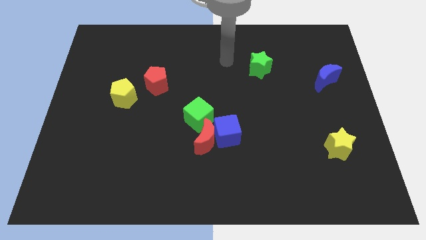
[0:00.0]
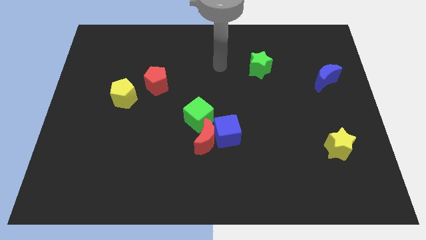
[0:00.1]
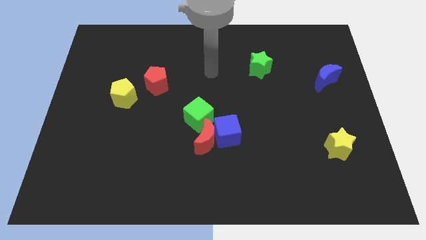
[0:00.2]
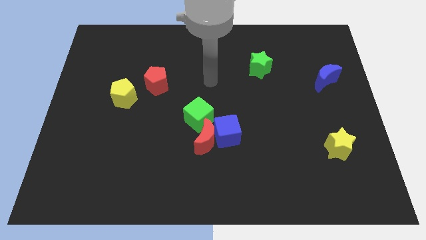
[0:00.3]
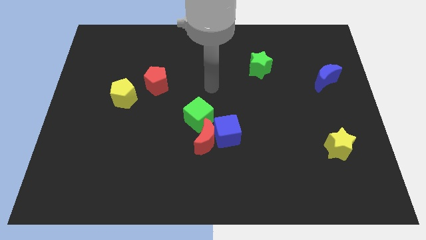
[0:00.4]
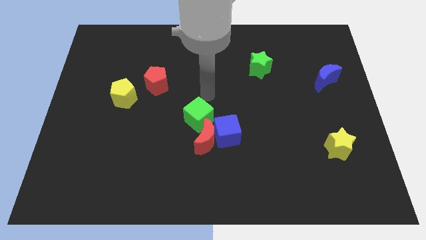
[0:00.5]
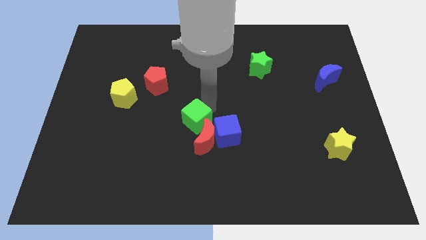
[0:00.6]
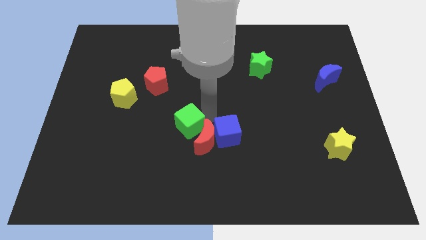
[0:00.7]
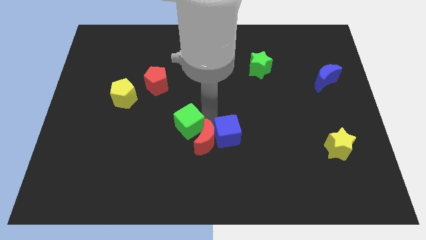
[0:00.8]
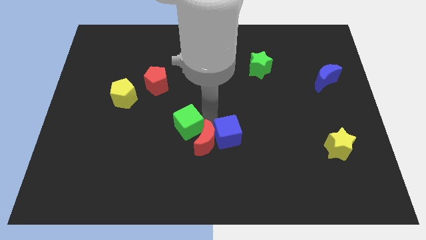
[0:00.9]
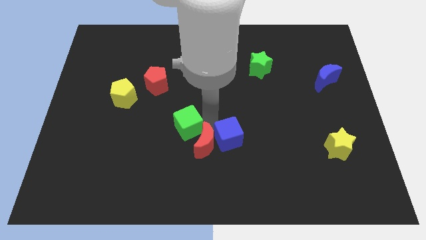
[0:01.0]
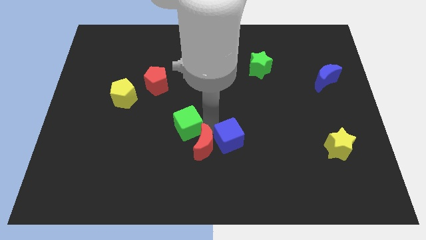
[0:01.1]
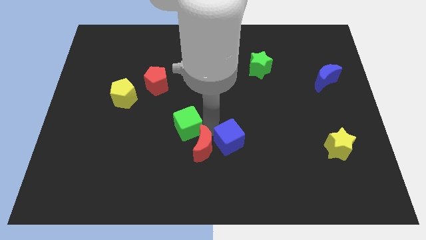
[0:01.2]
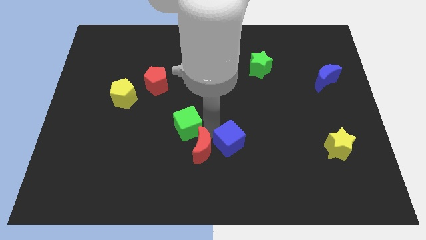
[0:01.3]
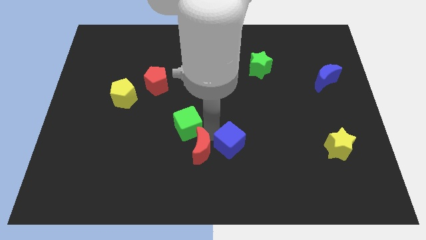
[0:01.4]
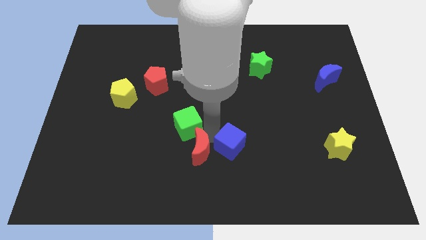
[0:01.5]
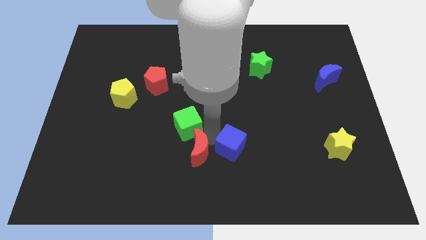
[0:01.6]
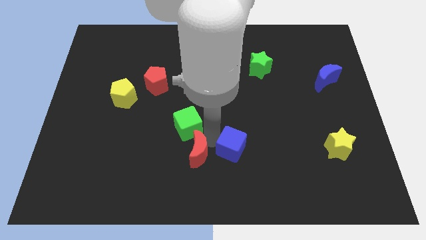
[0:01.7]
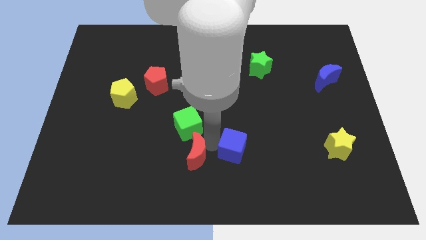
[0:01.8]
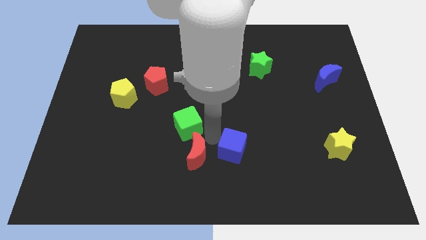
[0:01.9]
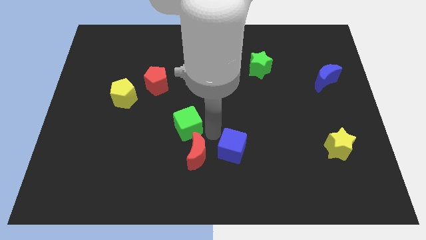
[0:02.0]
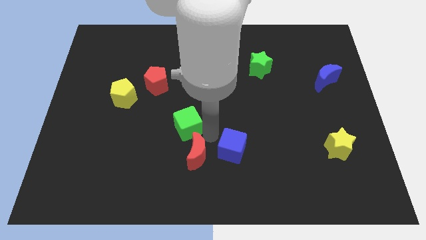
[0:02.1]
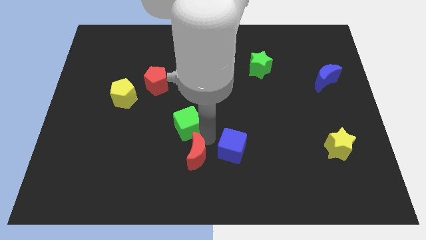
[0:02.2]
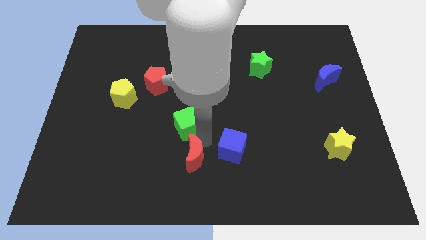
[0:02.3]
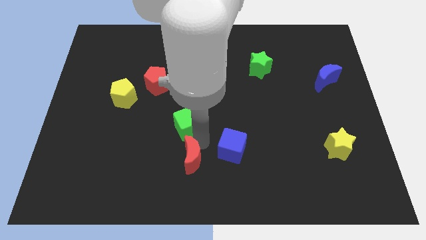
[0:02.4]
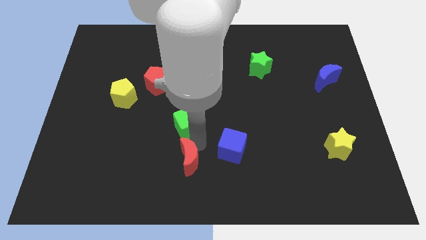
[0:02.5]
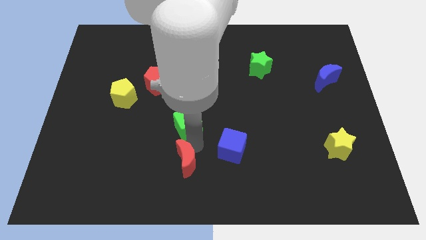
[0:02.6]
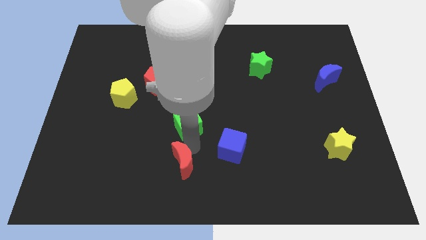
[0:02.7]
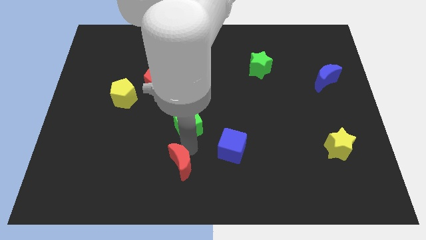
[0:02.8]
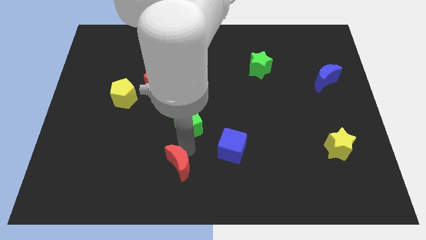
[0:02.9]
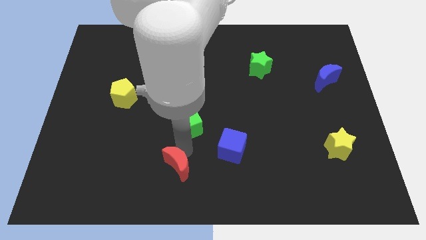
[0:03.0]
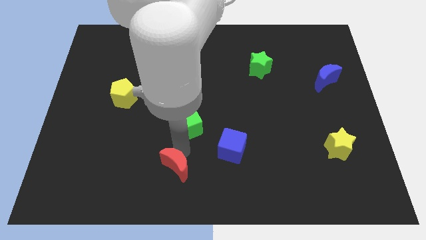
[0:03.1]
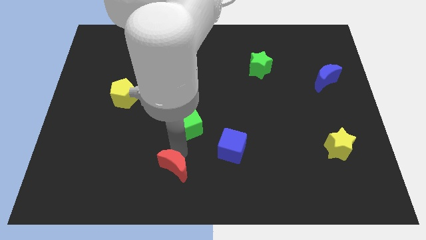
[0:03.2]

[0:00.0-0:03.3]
move the red moon away from the blue cube and green cube

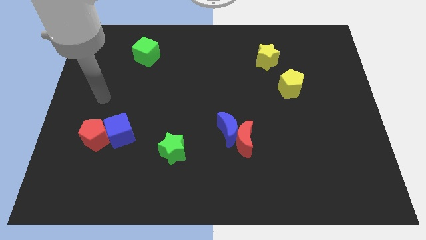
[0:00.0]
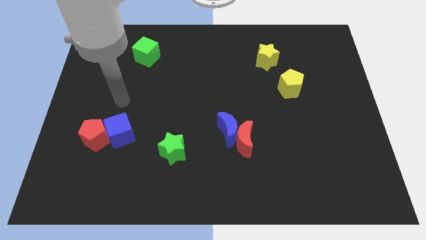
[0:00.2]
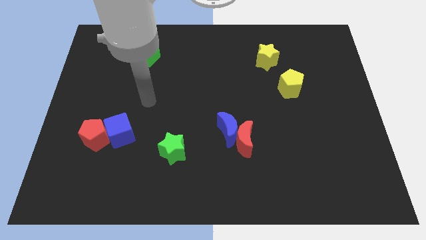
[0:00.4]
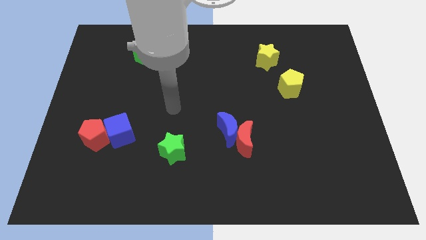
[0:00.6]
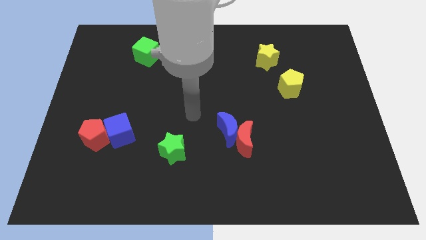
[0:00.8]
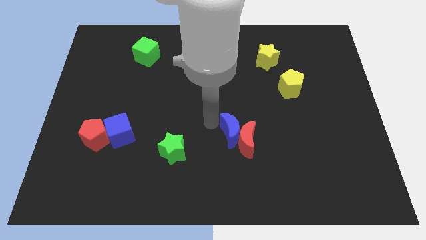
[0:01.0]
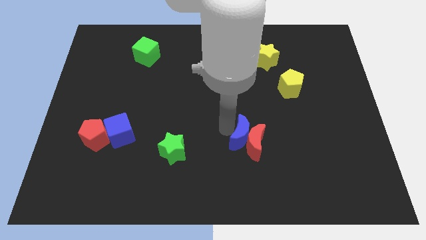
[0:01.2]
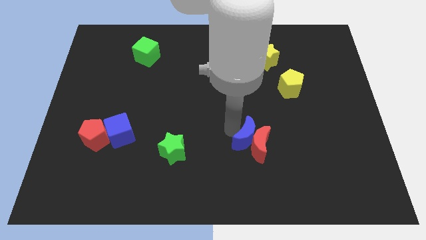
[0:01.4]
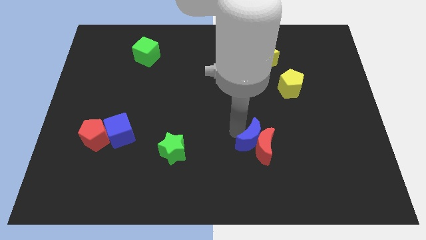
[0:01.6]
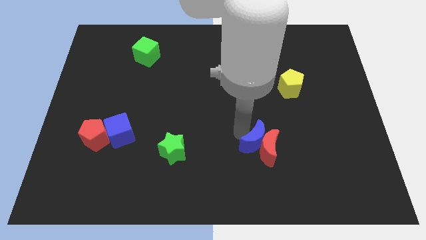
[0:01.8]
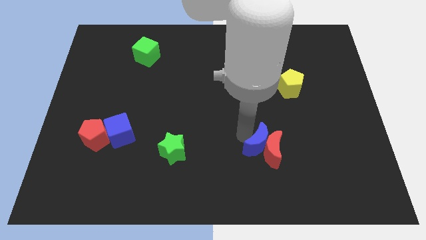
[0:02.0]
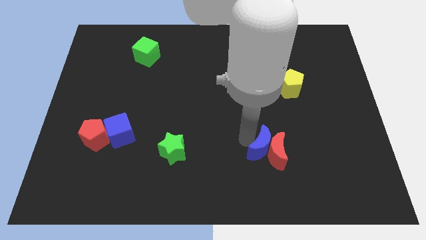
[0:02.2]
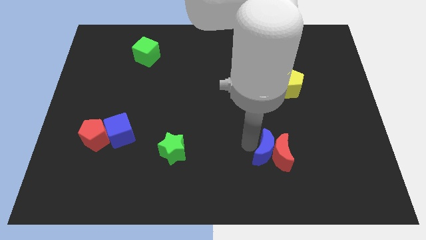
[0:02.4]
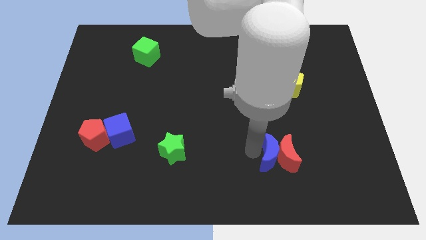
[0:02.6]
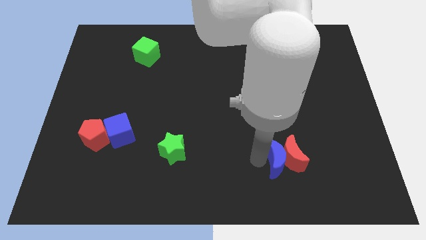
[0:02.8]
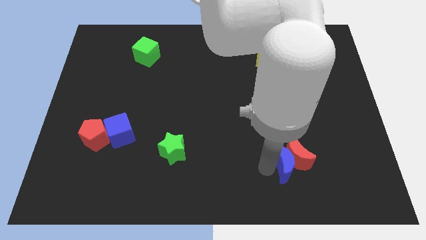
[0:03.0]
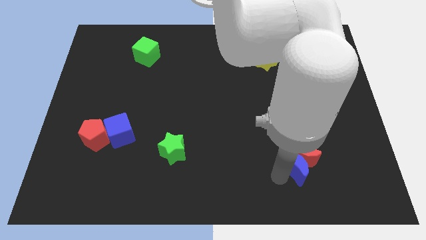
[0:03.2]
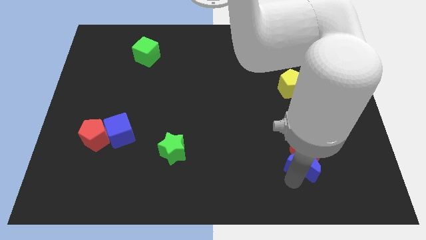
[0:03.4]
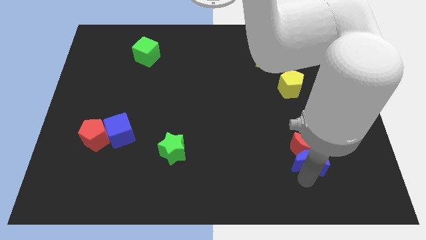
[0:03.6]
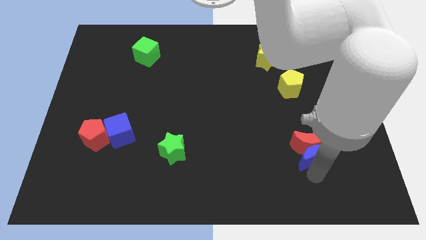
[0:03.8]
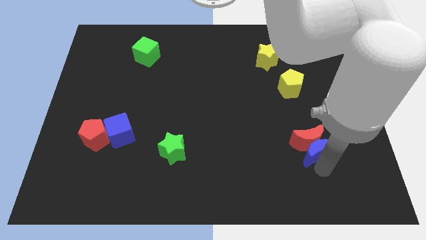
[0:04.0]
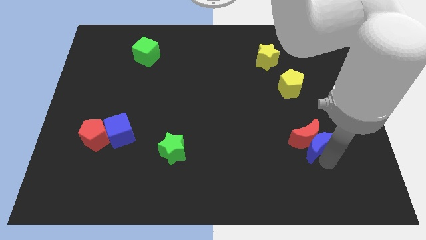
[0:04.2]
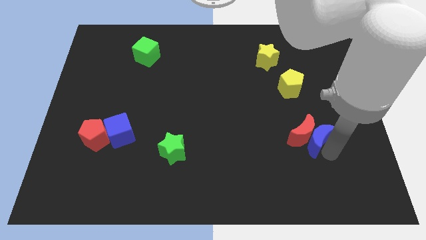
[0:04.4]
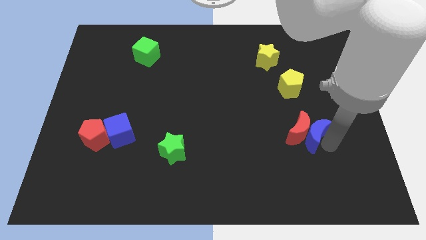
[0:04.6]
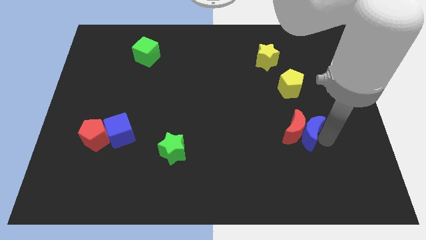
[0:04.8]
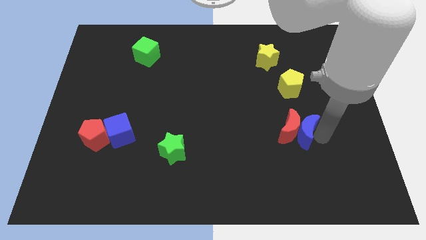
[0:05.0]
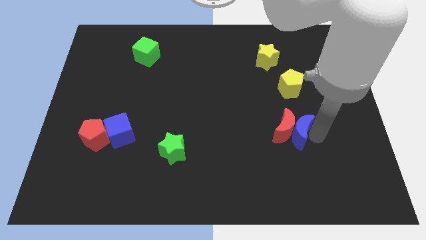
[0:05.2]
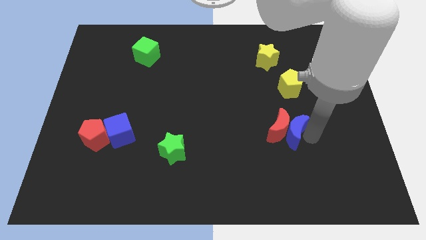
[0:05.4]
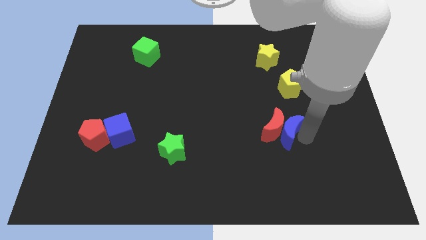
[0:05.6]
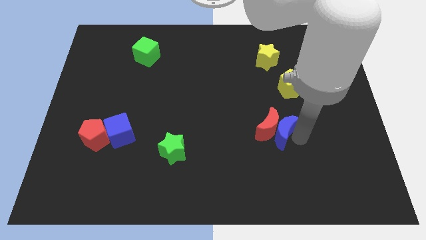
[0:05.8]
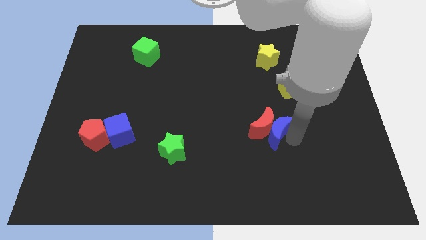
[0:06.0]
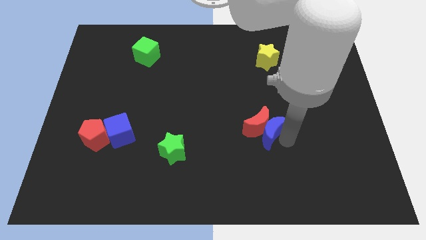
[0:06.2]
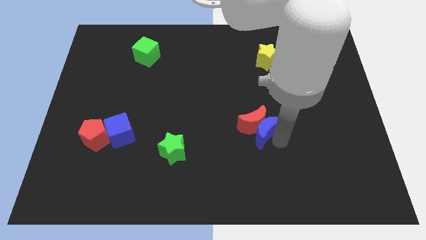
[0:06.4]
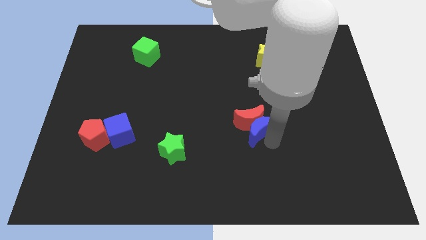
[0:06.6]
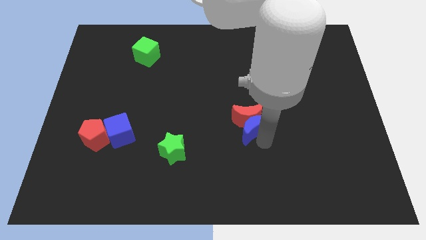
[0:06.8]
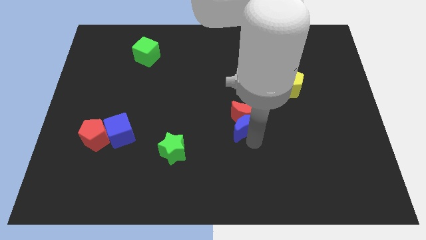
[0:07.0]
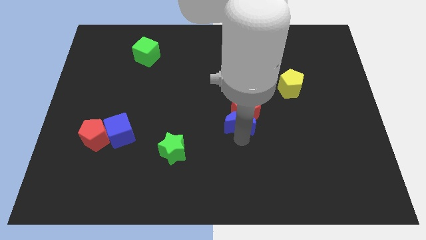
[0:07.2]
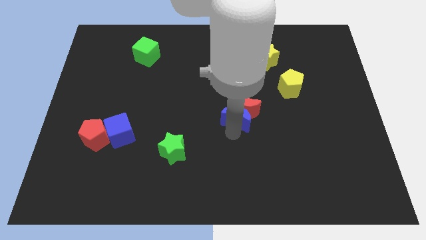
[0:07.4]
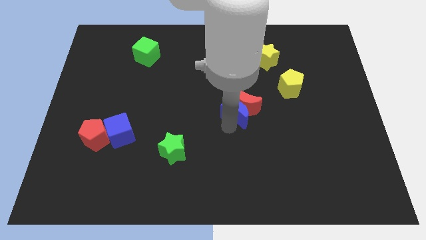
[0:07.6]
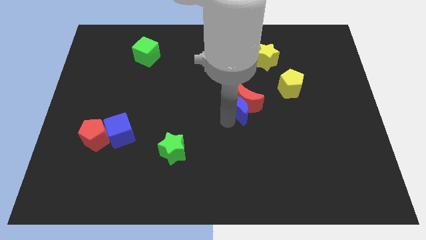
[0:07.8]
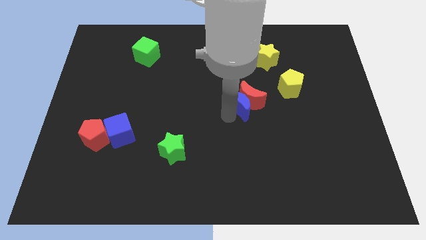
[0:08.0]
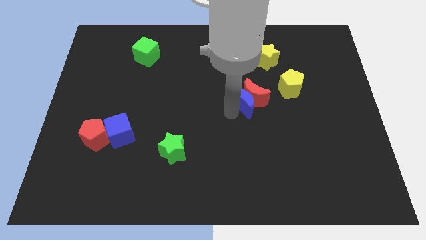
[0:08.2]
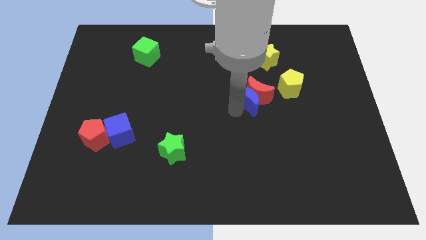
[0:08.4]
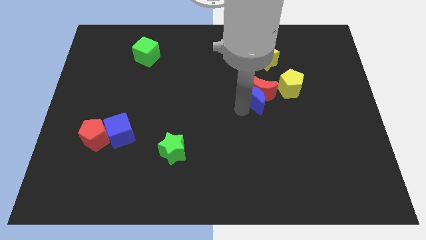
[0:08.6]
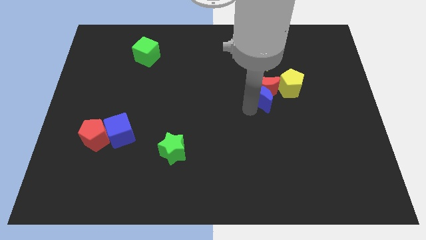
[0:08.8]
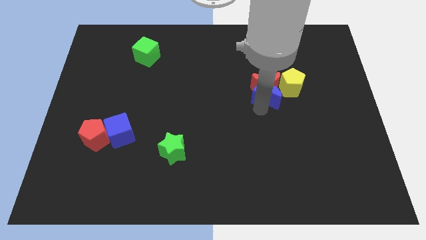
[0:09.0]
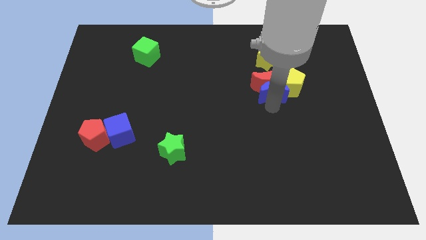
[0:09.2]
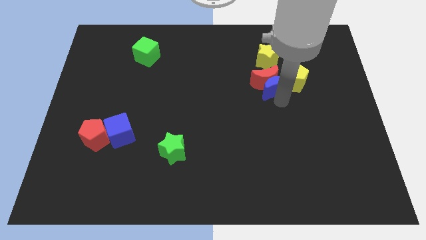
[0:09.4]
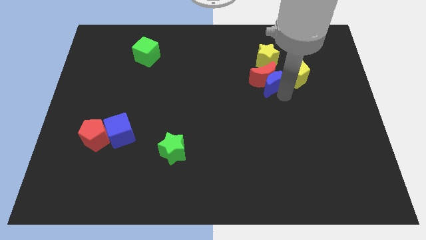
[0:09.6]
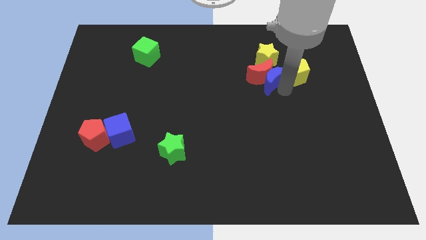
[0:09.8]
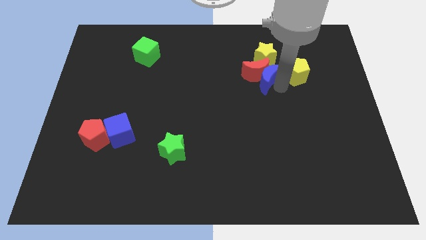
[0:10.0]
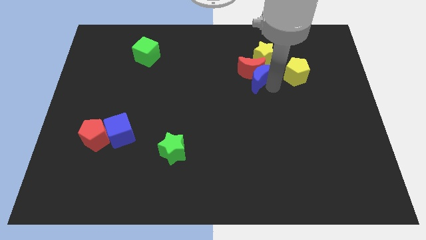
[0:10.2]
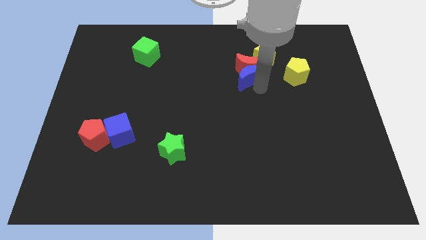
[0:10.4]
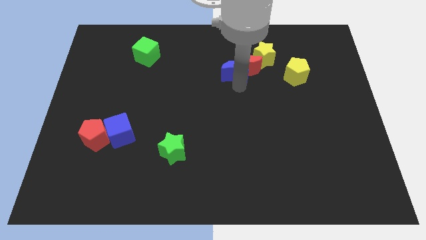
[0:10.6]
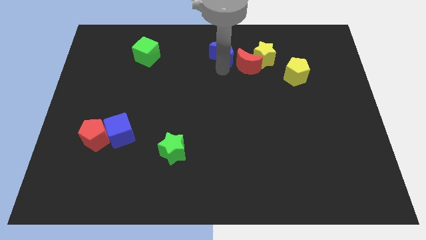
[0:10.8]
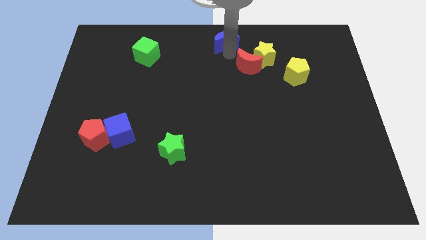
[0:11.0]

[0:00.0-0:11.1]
pull the red moon apart from the blue moon

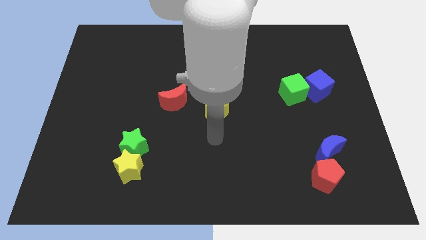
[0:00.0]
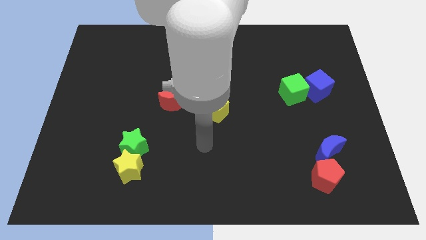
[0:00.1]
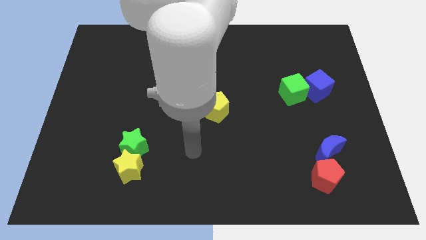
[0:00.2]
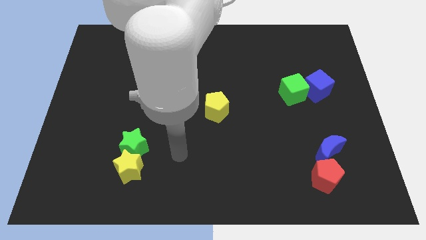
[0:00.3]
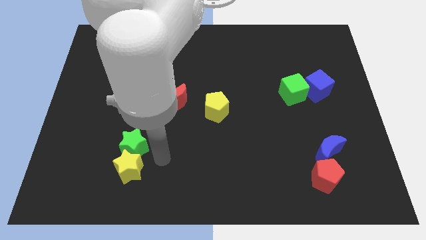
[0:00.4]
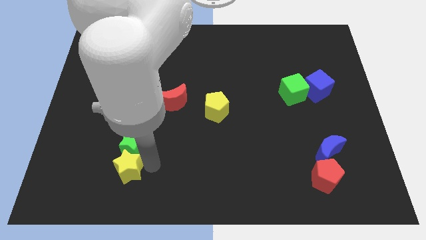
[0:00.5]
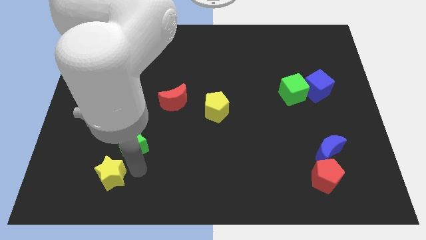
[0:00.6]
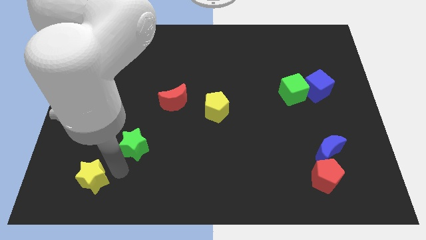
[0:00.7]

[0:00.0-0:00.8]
pull the green star apart from the yellow star
